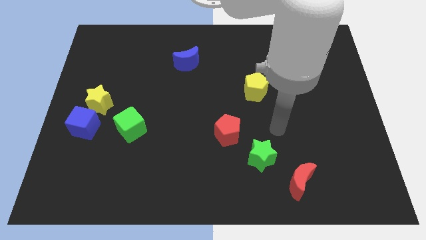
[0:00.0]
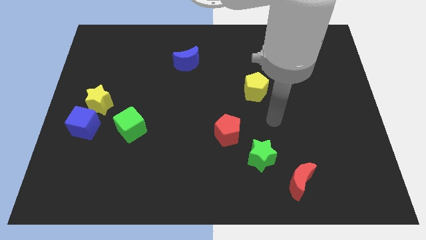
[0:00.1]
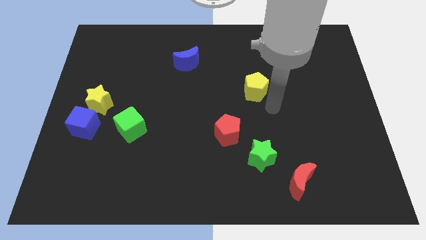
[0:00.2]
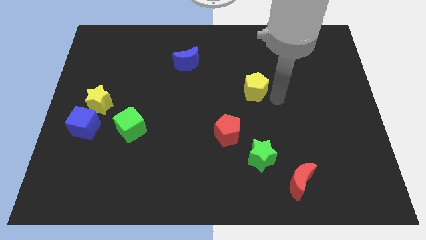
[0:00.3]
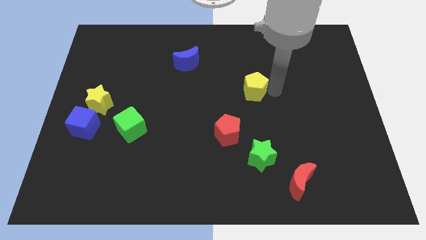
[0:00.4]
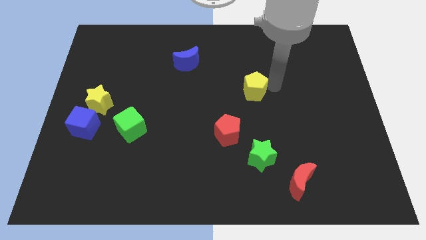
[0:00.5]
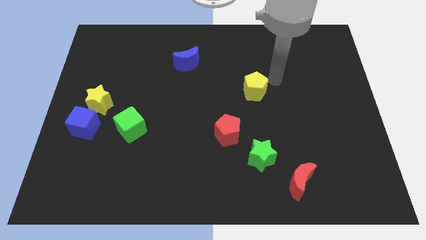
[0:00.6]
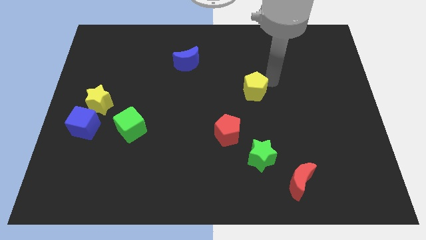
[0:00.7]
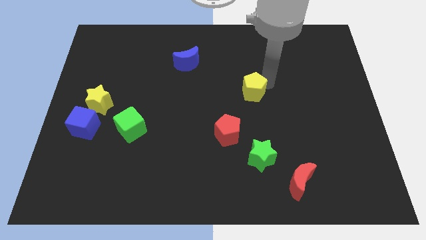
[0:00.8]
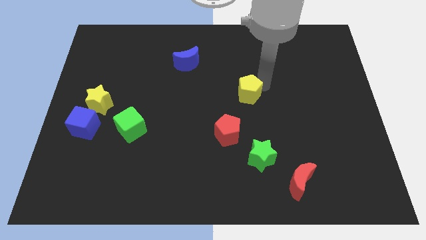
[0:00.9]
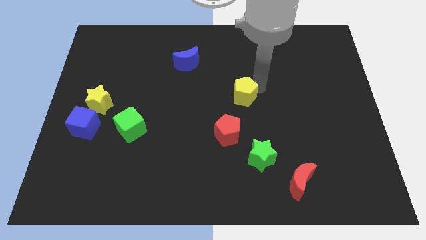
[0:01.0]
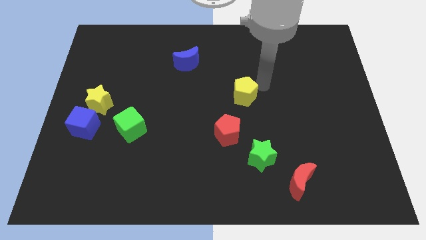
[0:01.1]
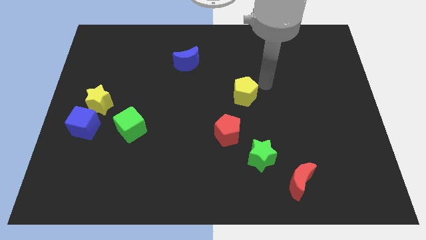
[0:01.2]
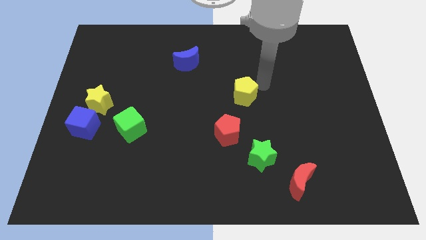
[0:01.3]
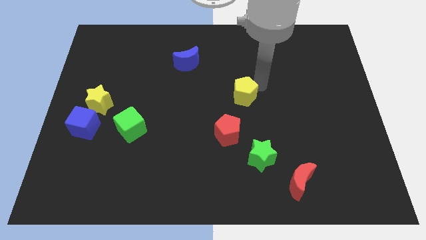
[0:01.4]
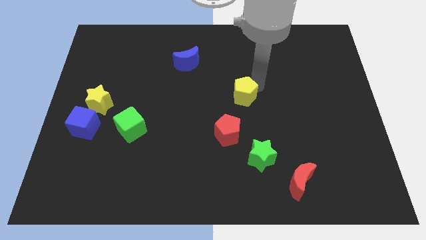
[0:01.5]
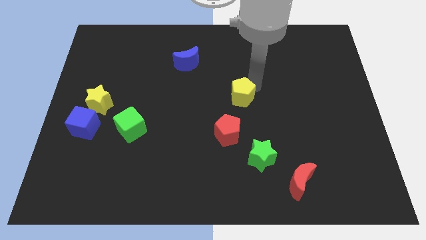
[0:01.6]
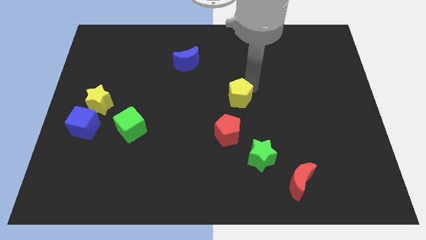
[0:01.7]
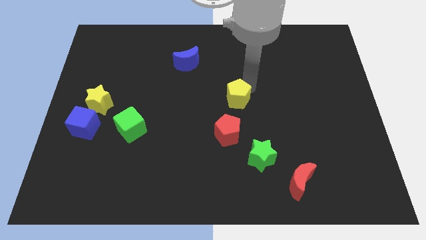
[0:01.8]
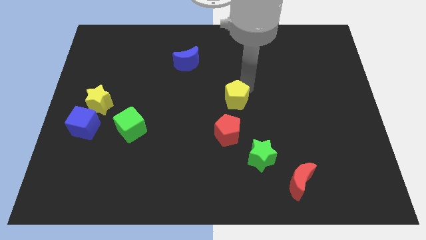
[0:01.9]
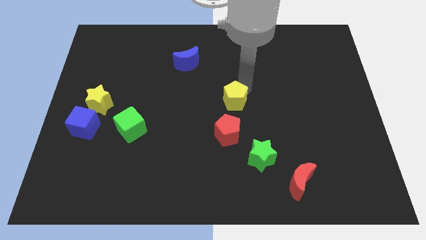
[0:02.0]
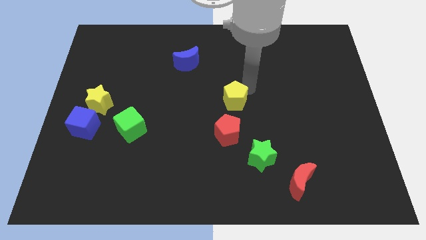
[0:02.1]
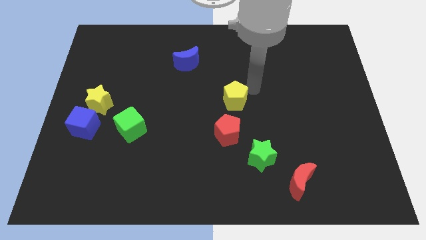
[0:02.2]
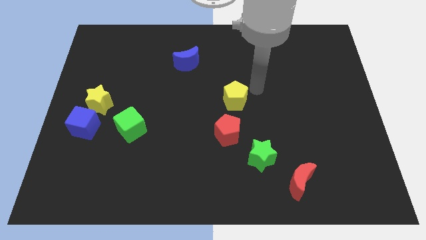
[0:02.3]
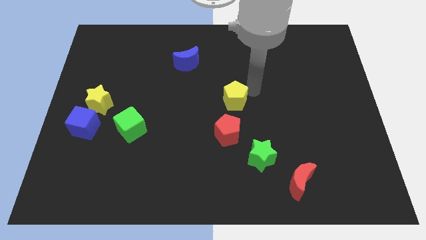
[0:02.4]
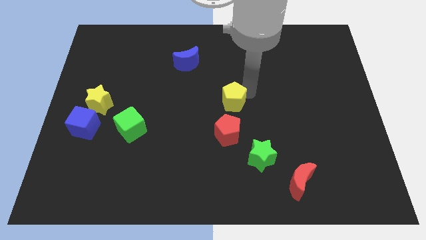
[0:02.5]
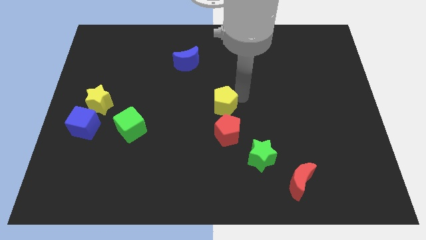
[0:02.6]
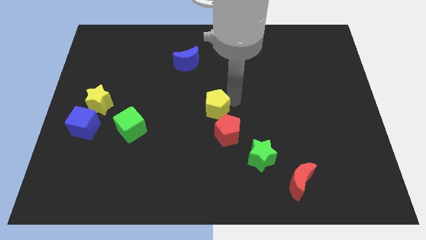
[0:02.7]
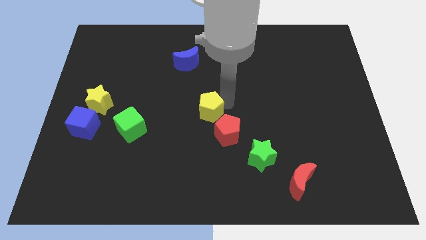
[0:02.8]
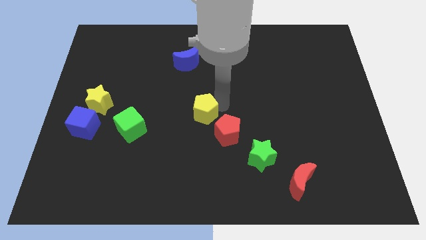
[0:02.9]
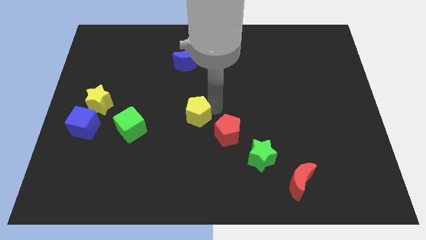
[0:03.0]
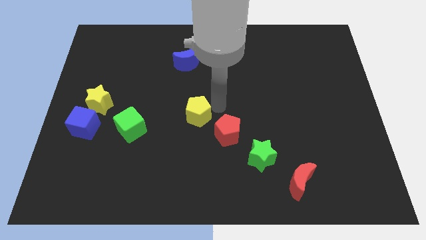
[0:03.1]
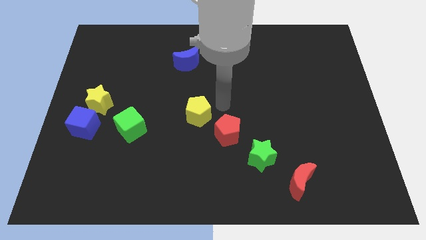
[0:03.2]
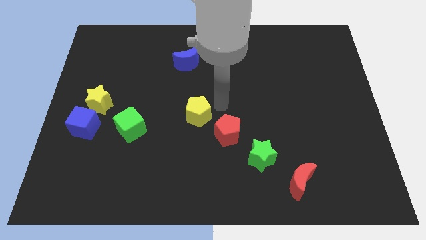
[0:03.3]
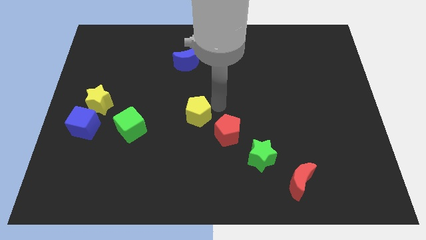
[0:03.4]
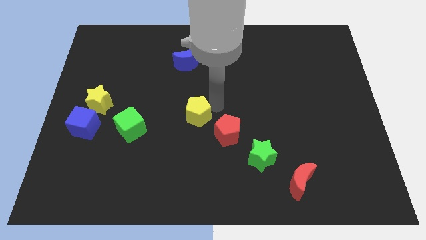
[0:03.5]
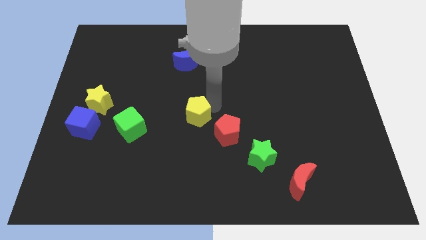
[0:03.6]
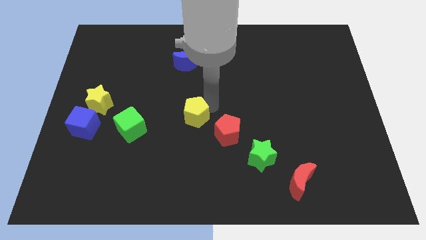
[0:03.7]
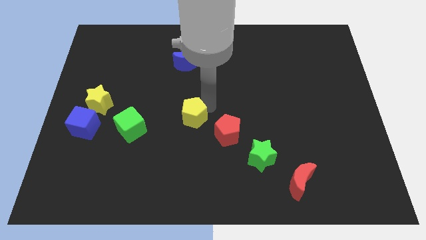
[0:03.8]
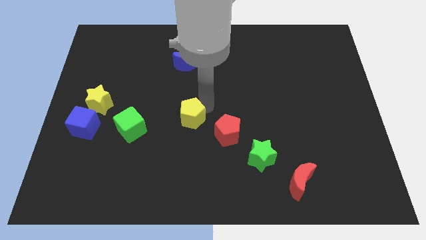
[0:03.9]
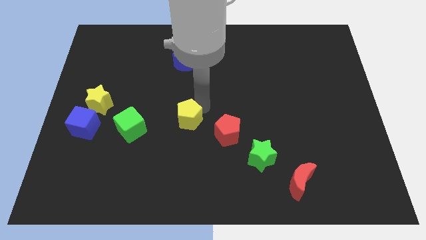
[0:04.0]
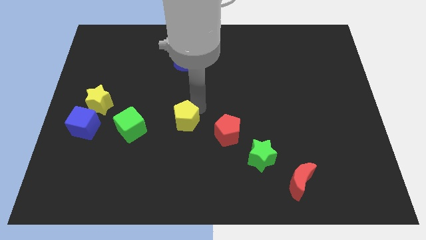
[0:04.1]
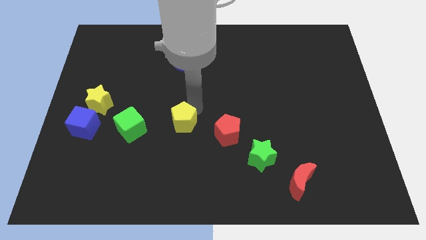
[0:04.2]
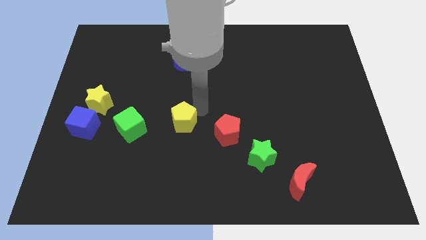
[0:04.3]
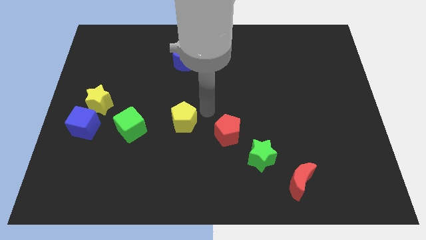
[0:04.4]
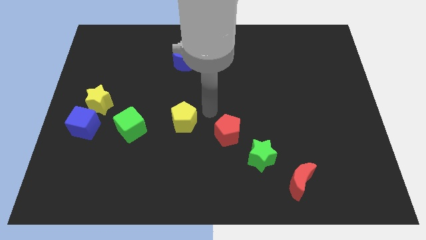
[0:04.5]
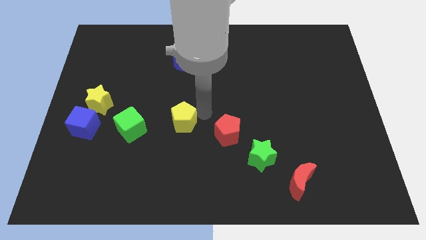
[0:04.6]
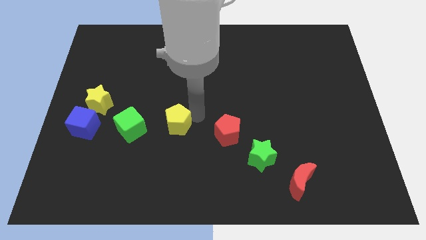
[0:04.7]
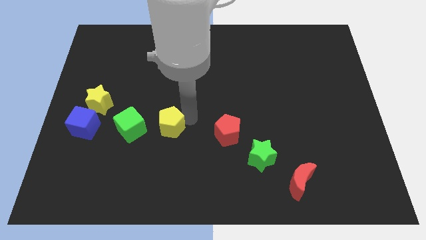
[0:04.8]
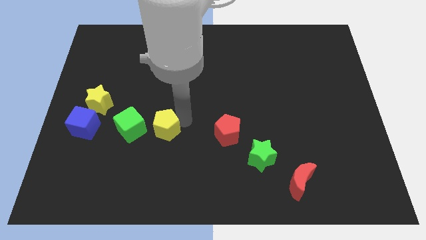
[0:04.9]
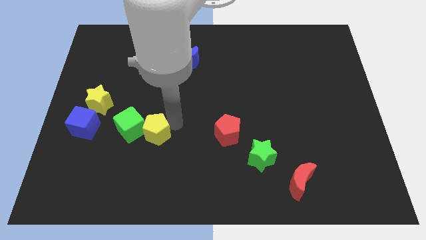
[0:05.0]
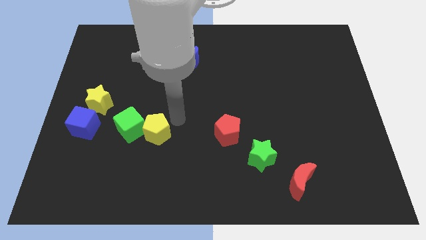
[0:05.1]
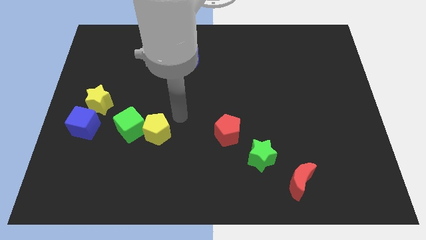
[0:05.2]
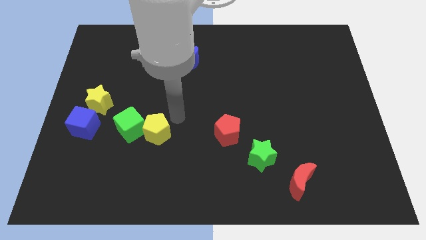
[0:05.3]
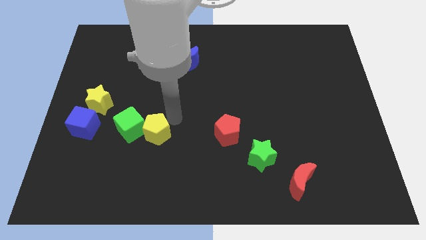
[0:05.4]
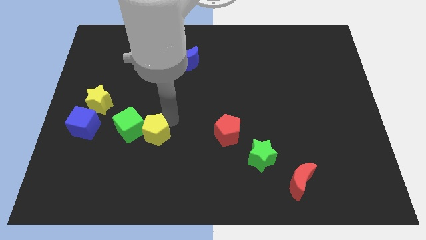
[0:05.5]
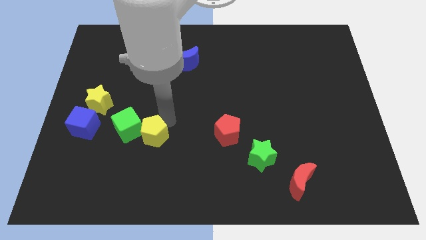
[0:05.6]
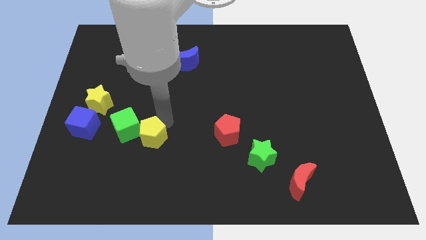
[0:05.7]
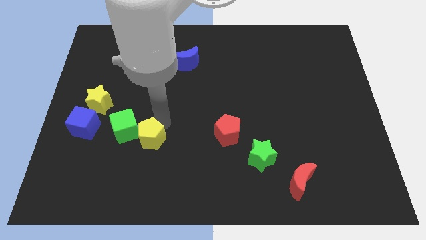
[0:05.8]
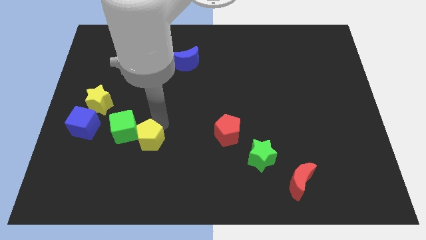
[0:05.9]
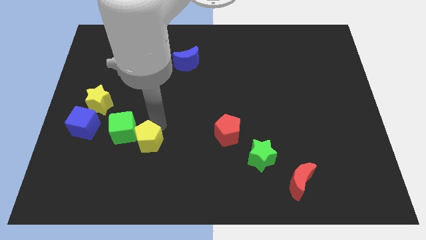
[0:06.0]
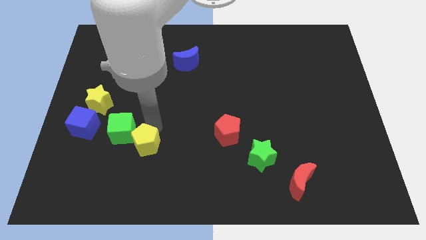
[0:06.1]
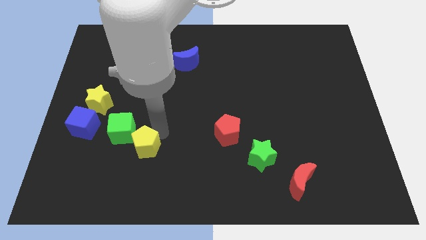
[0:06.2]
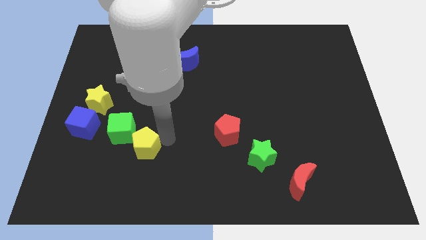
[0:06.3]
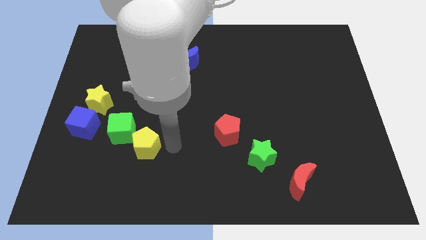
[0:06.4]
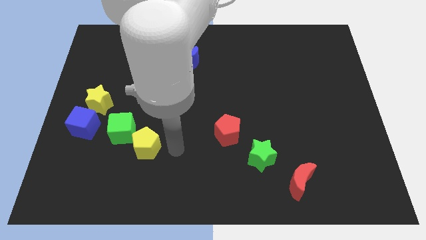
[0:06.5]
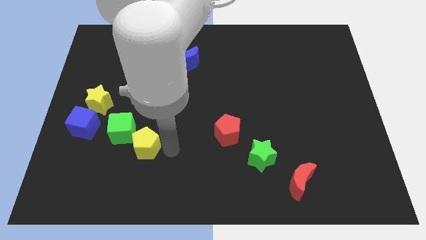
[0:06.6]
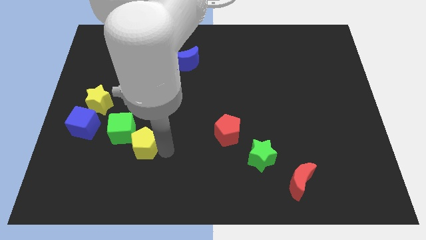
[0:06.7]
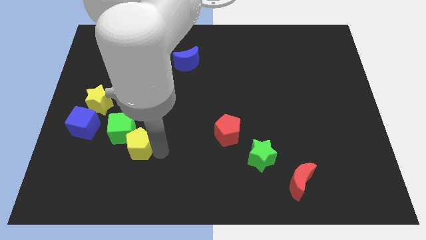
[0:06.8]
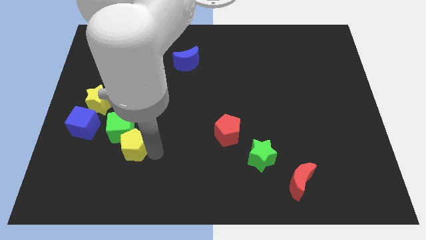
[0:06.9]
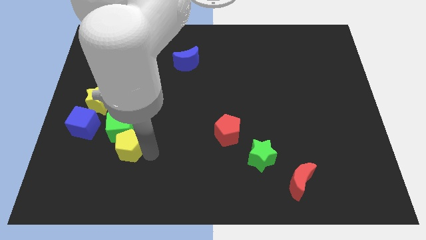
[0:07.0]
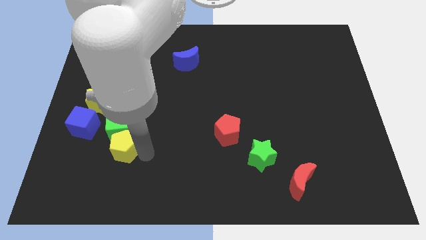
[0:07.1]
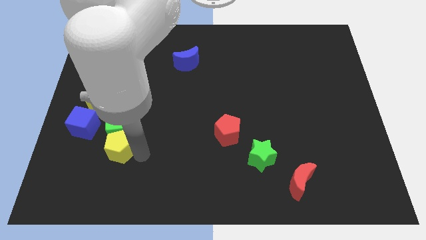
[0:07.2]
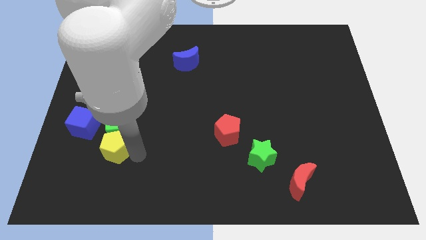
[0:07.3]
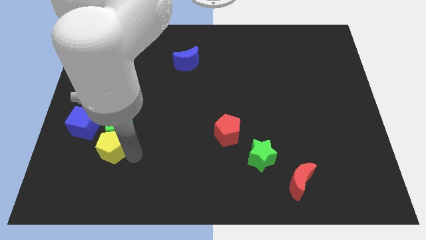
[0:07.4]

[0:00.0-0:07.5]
move the yellow pentagon below the yellow star

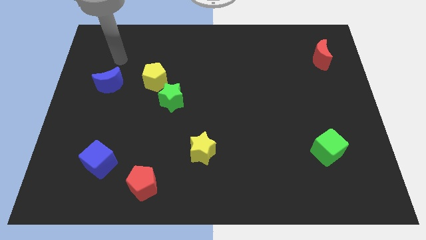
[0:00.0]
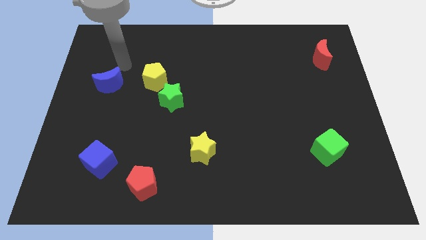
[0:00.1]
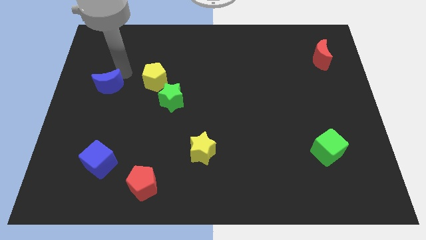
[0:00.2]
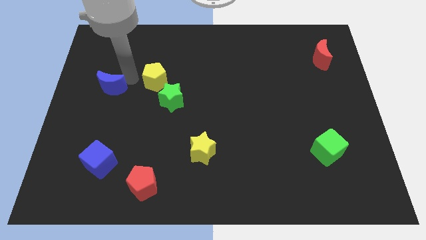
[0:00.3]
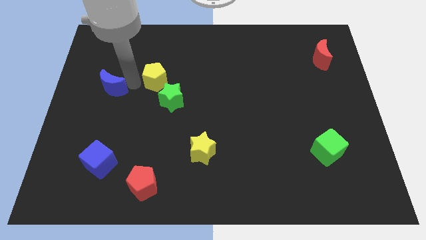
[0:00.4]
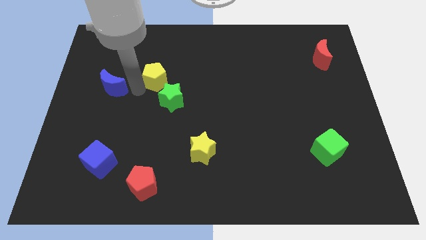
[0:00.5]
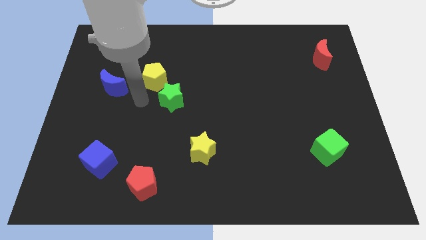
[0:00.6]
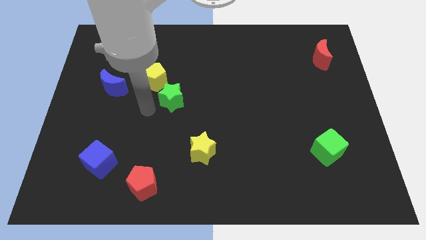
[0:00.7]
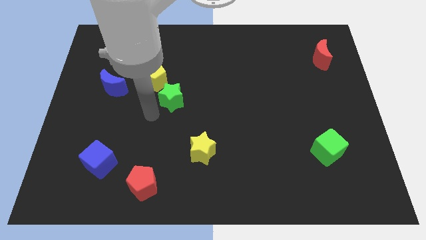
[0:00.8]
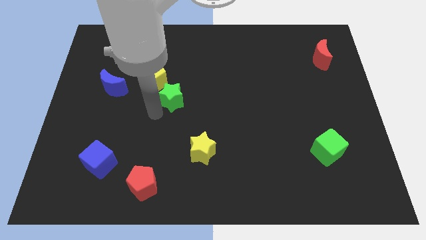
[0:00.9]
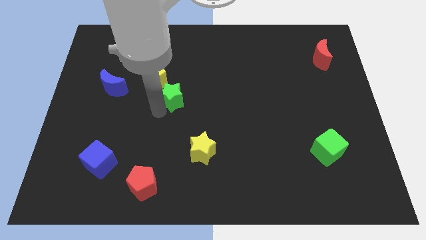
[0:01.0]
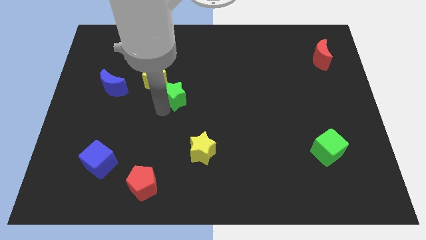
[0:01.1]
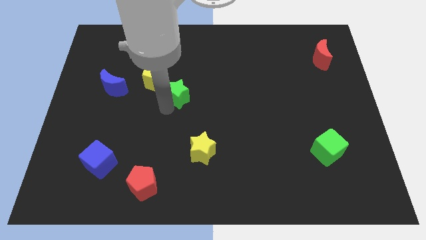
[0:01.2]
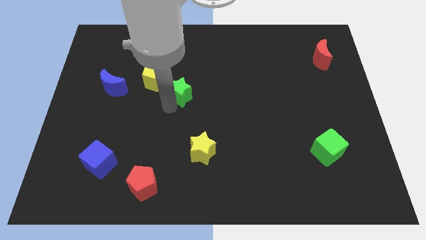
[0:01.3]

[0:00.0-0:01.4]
push the green star to the right of the yellow pentagon
